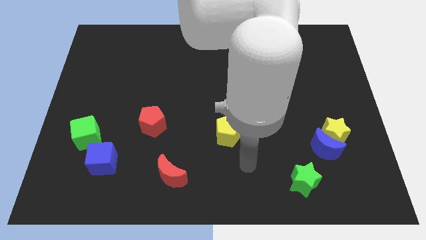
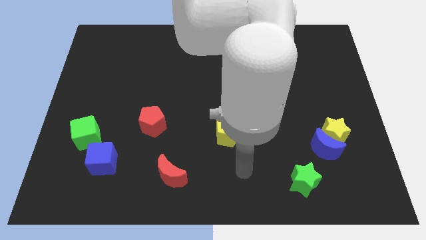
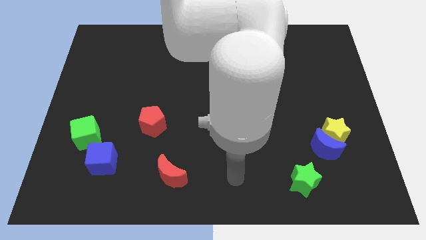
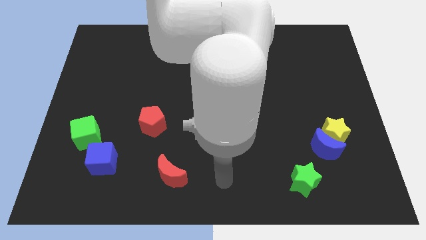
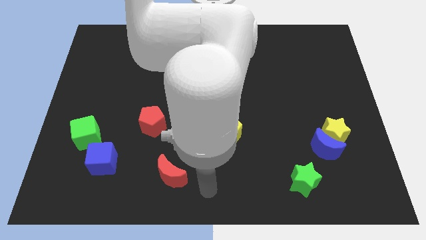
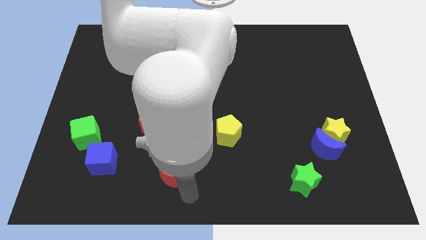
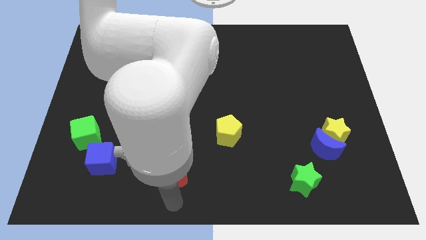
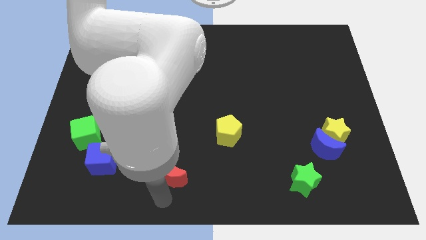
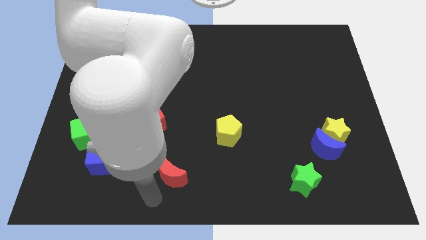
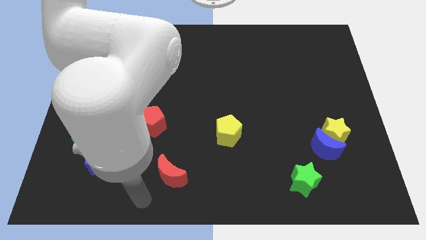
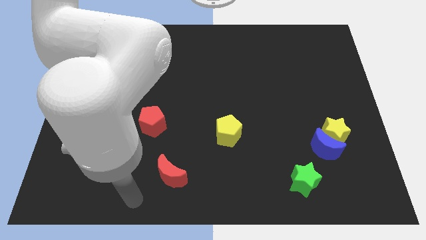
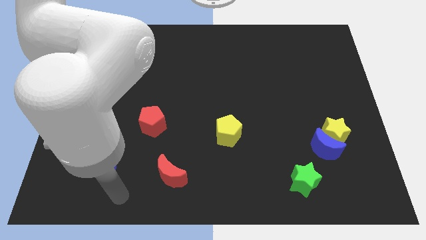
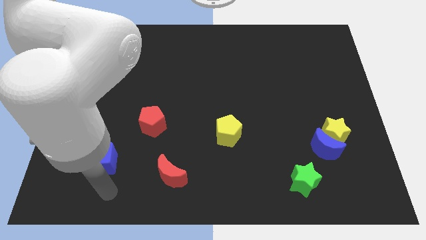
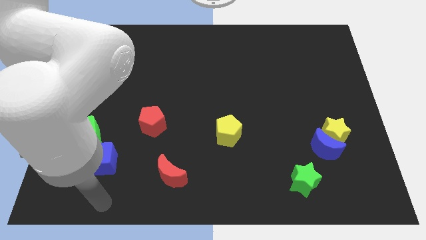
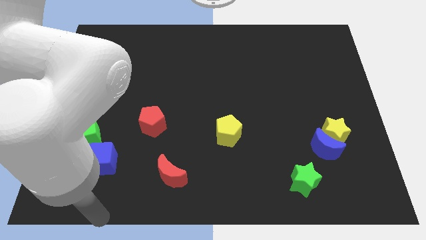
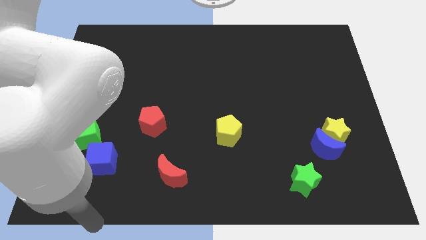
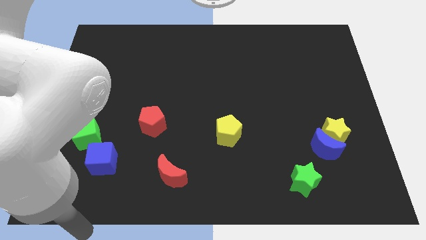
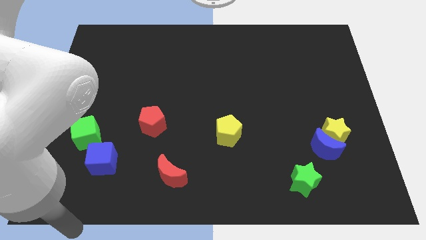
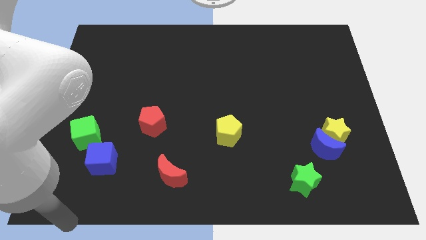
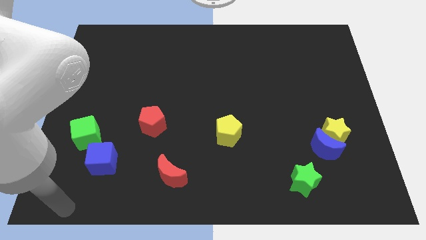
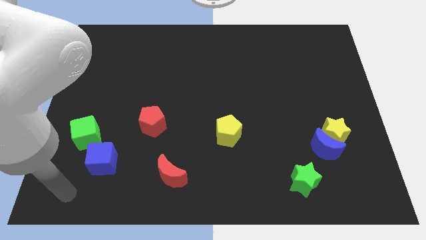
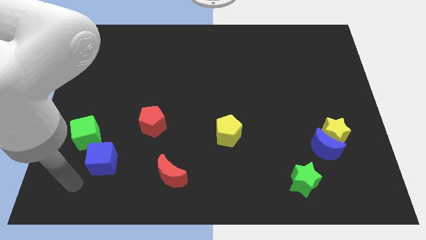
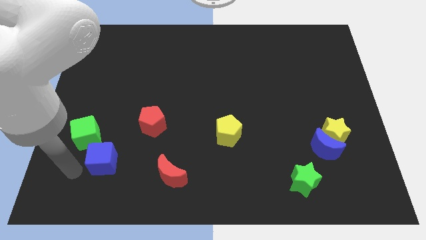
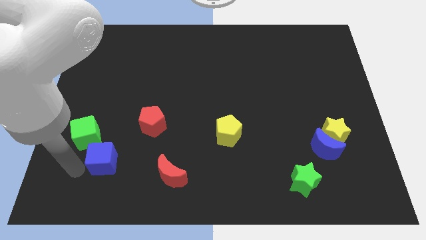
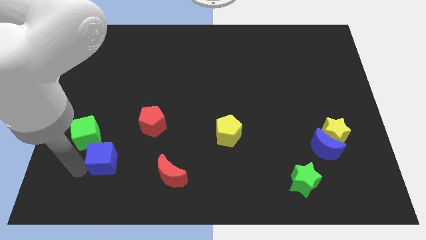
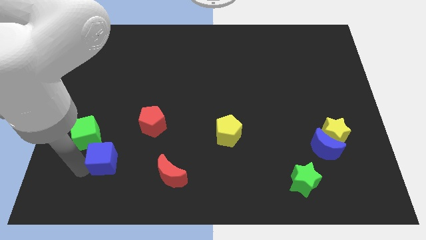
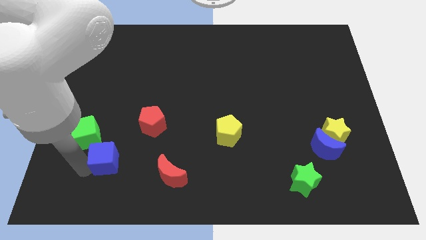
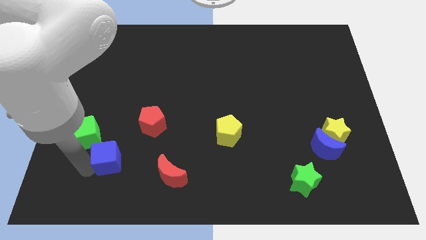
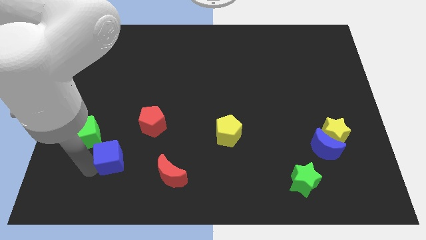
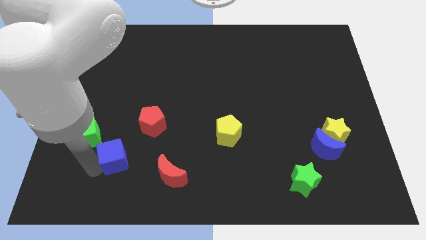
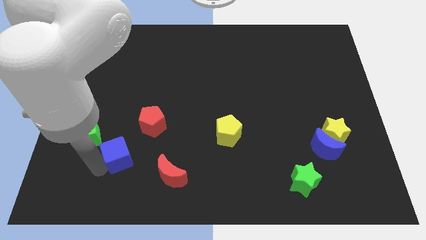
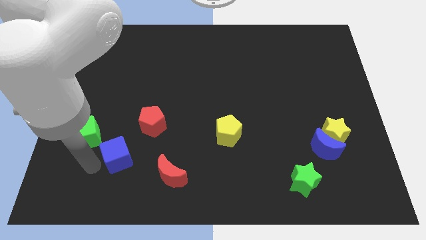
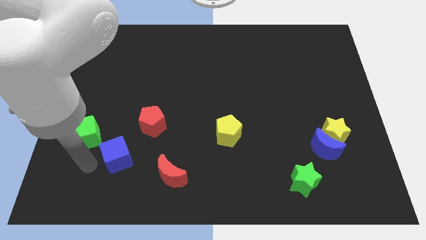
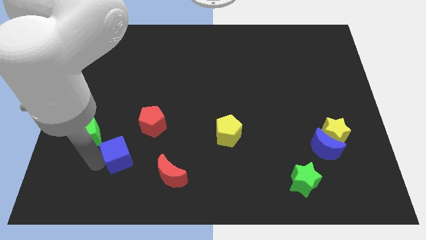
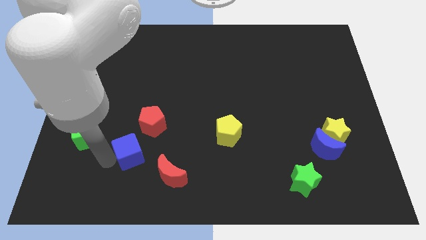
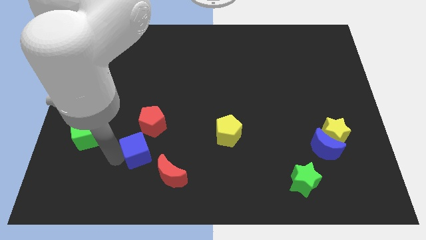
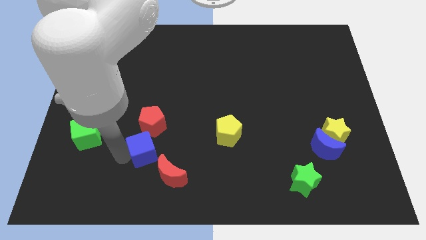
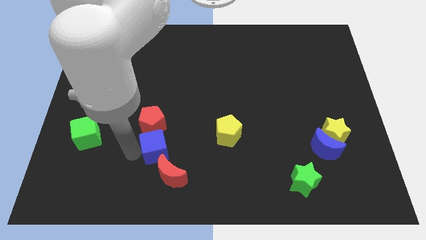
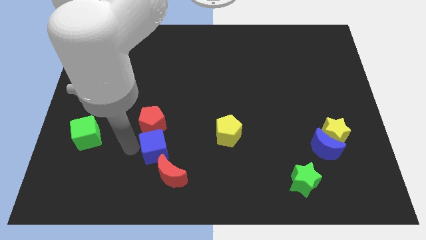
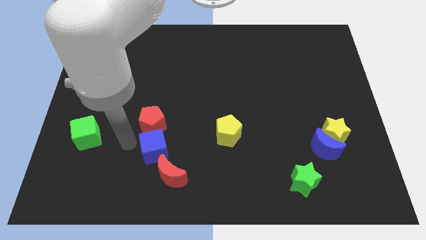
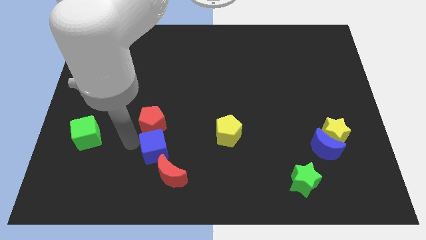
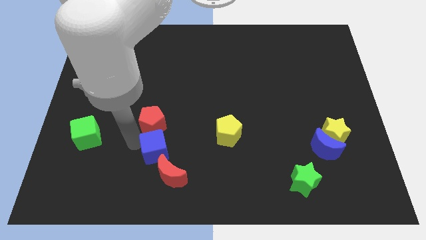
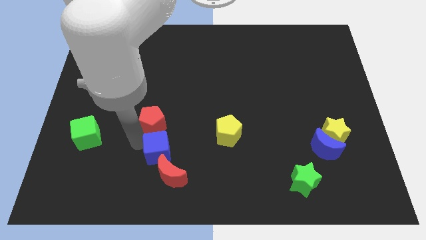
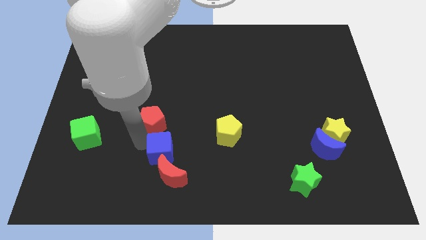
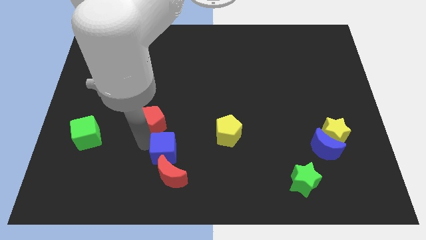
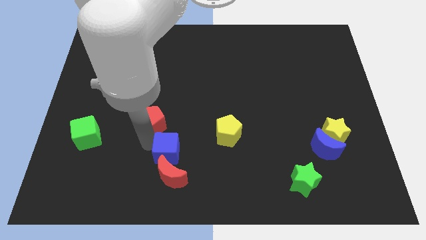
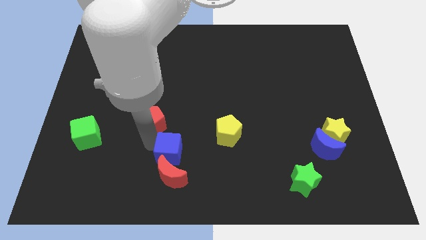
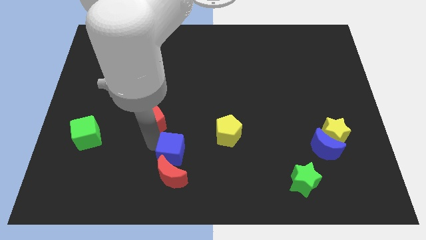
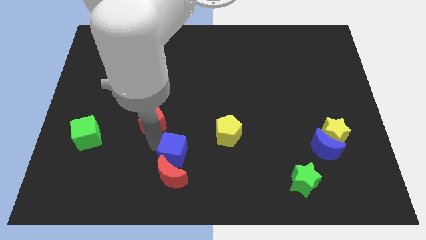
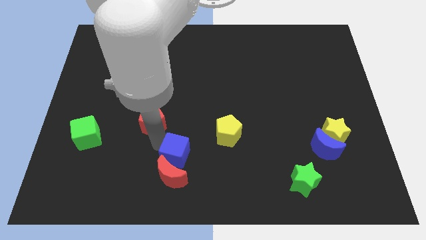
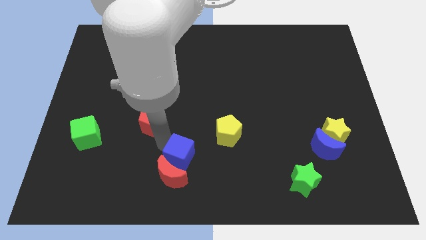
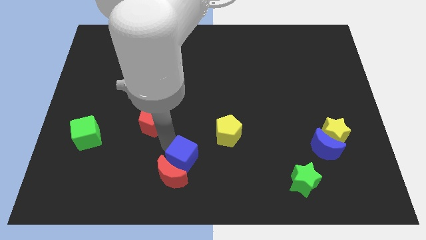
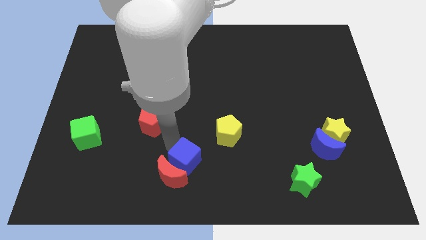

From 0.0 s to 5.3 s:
push the blue cube to the right side of the red moon

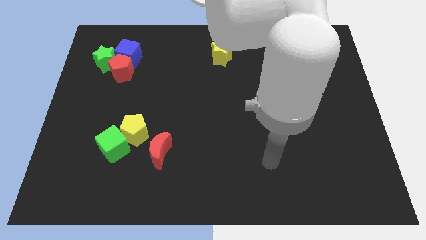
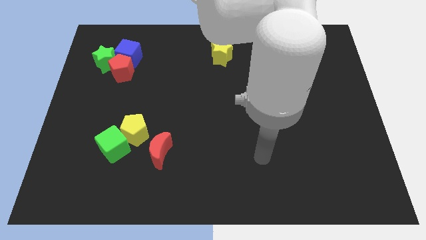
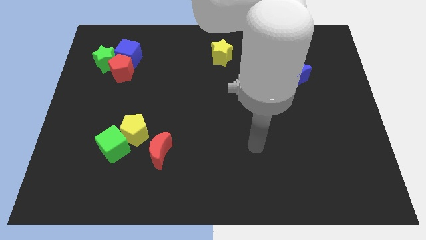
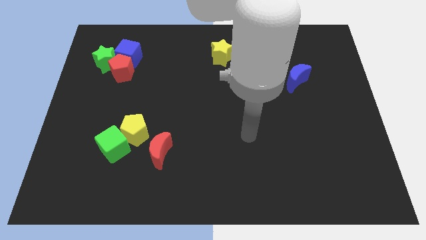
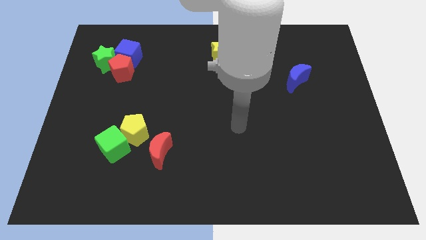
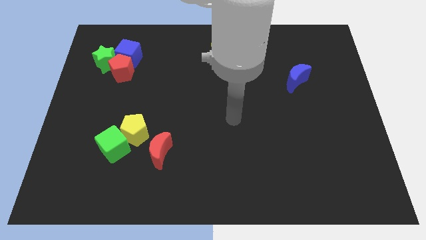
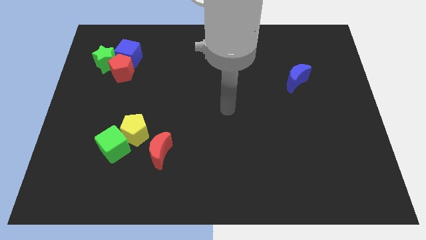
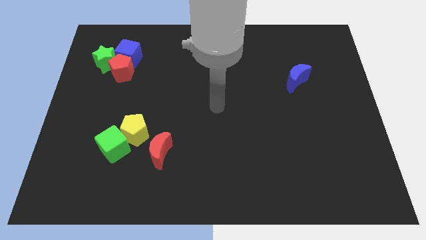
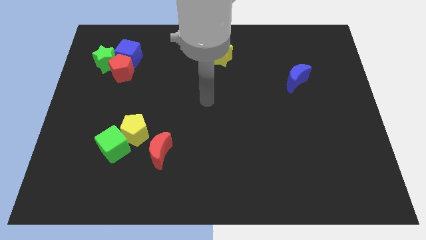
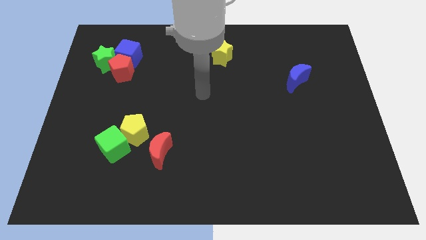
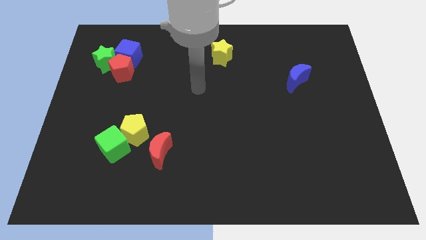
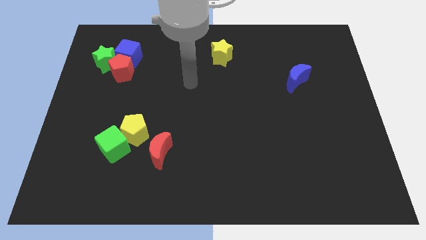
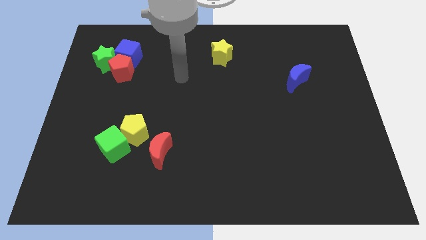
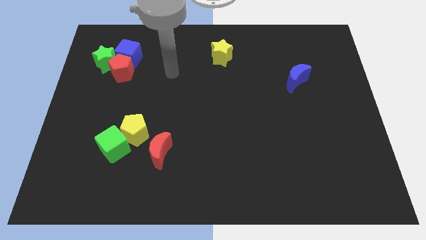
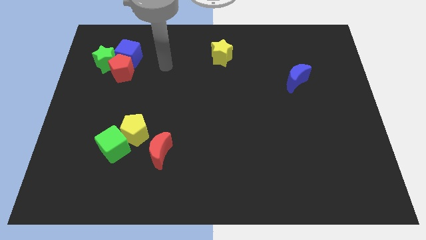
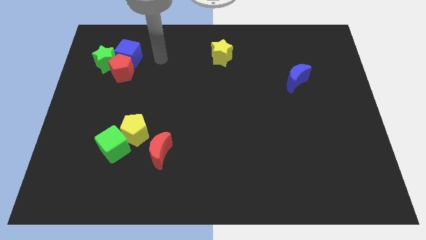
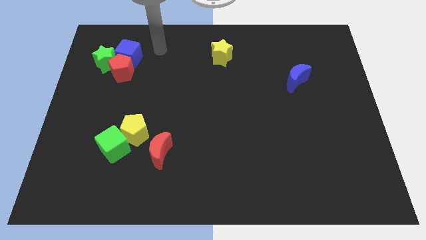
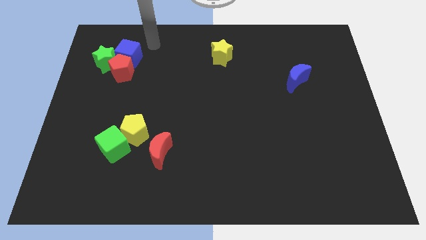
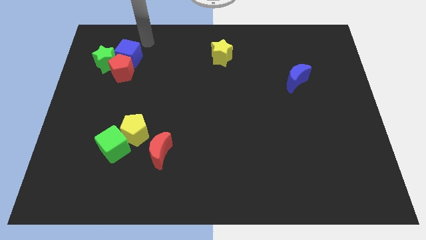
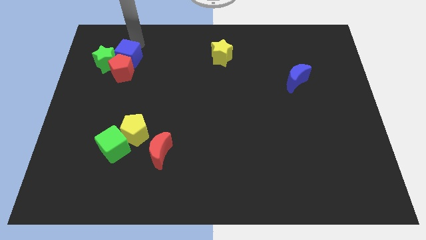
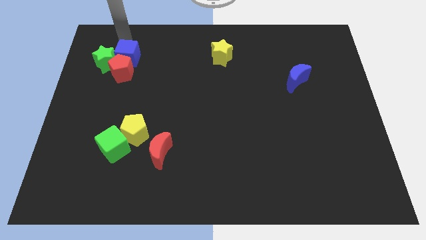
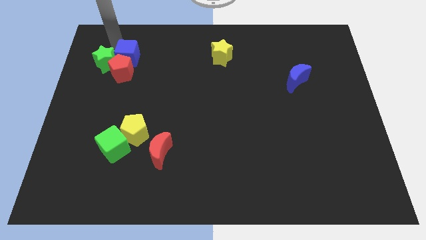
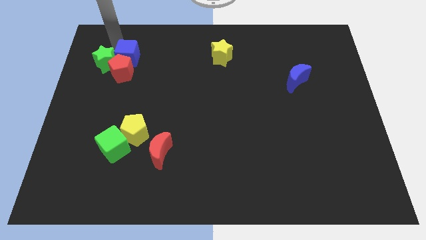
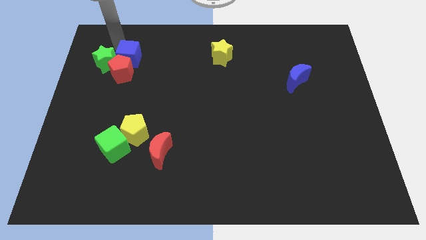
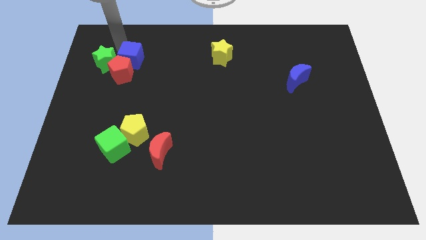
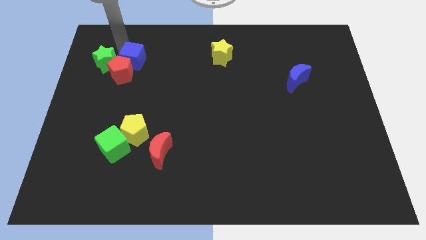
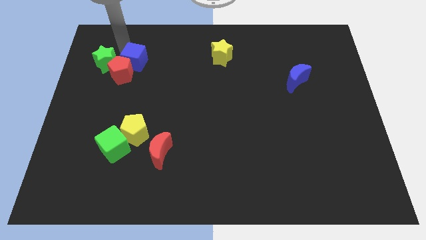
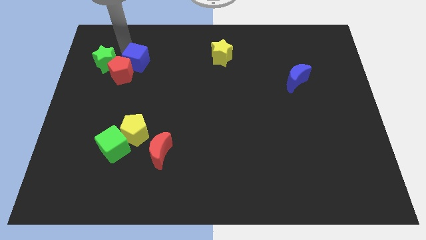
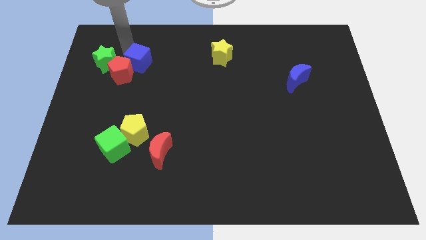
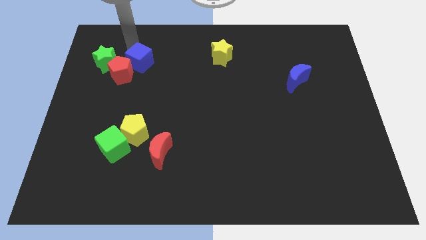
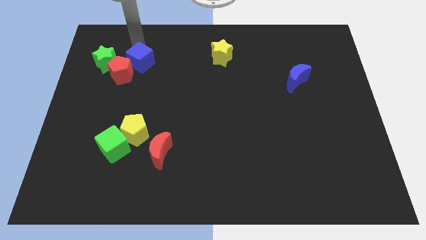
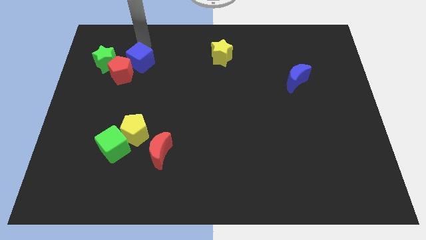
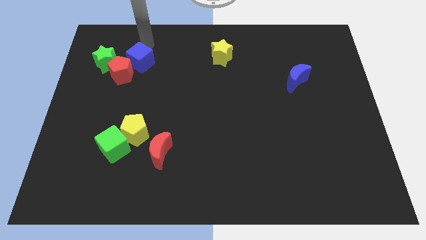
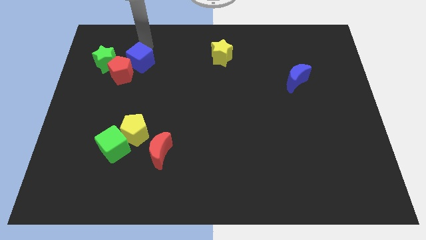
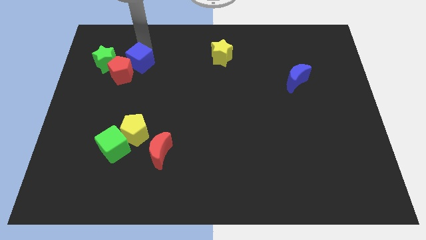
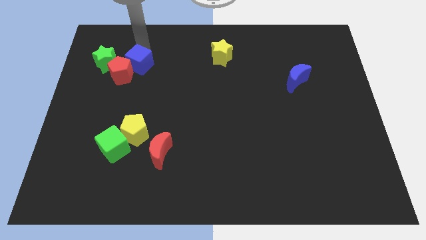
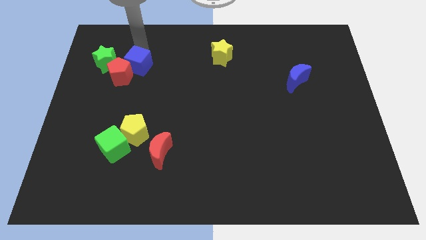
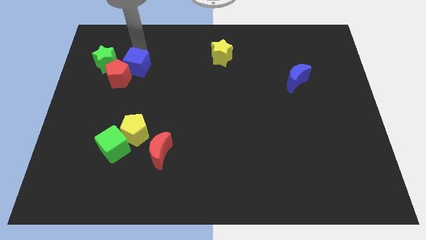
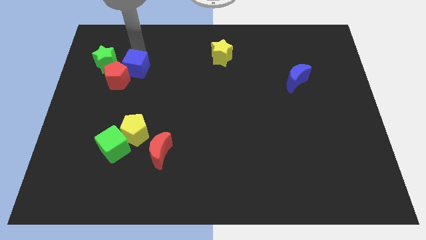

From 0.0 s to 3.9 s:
put the blue cube diagonally down and to the right of the green star
